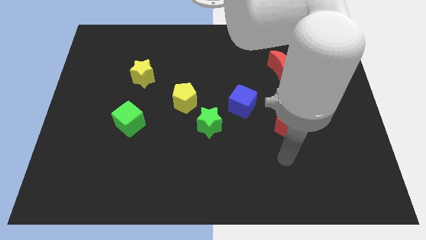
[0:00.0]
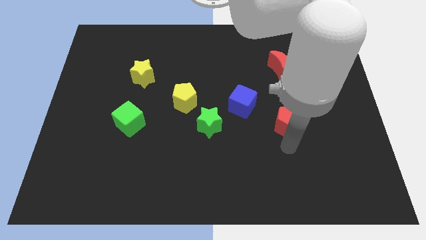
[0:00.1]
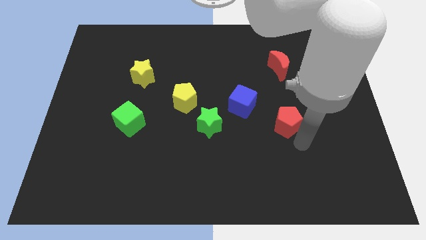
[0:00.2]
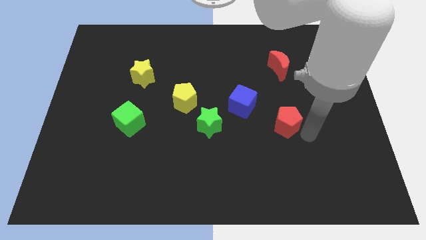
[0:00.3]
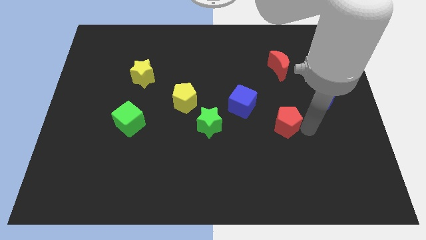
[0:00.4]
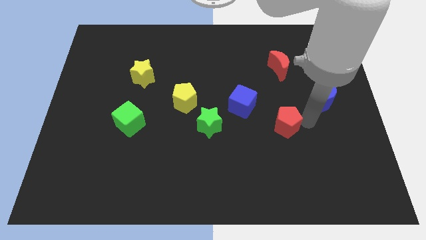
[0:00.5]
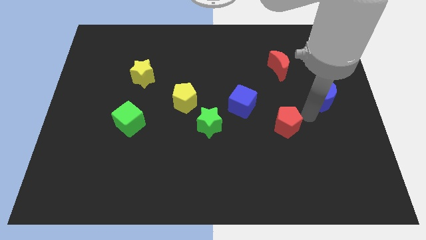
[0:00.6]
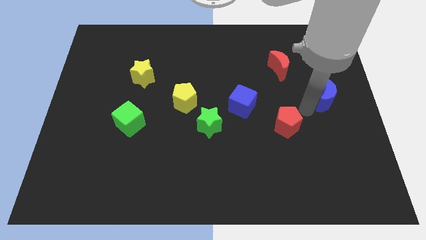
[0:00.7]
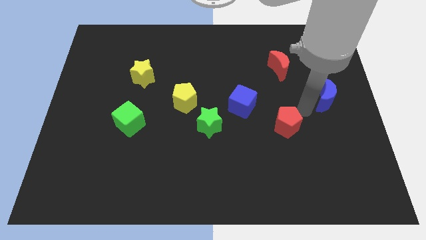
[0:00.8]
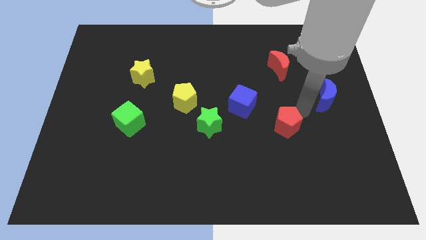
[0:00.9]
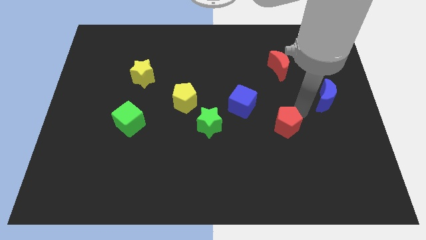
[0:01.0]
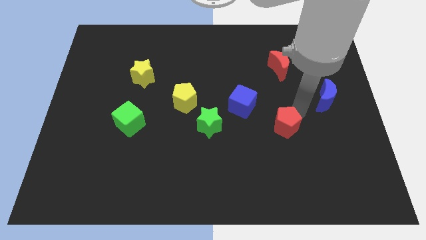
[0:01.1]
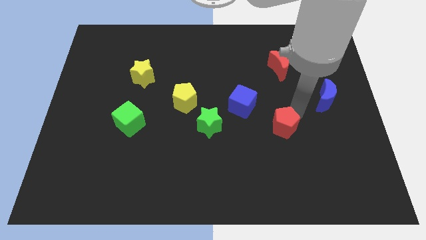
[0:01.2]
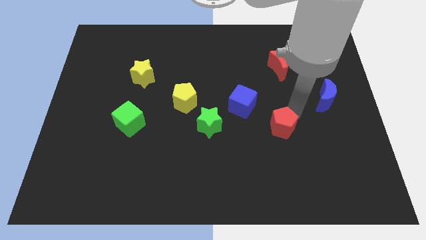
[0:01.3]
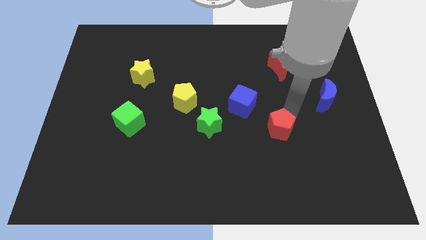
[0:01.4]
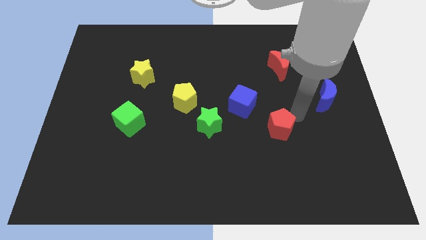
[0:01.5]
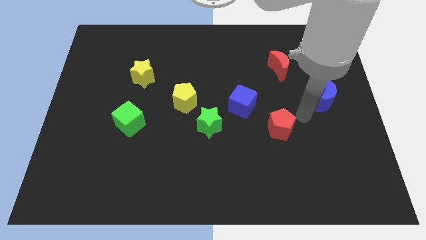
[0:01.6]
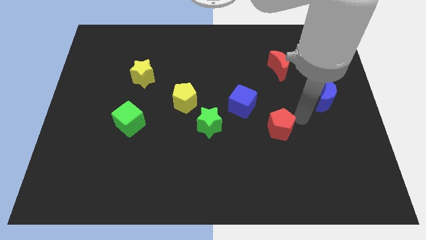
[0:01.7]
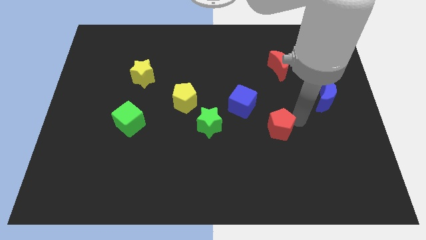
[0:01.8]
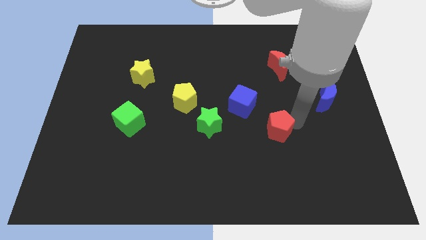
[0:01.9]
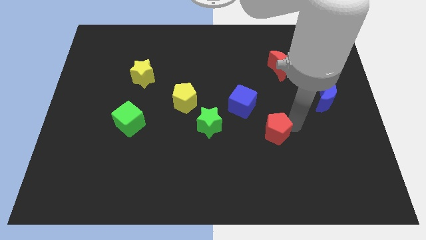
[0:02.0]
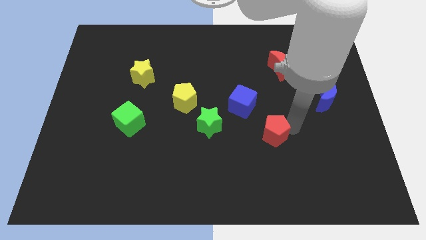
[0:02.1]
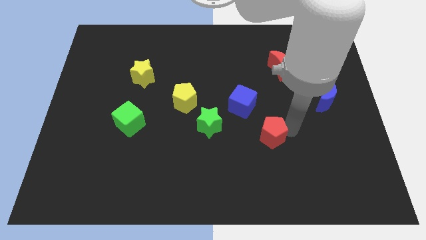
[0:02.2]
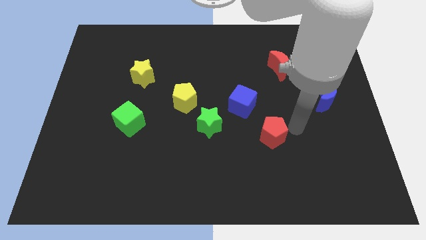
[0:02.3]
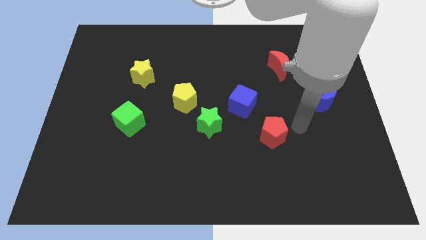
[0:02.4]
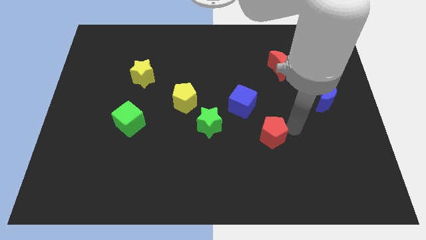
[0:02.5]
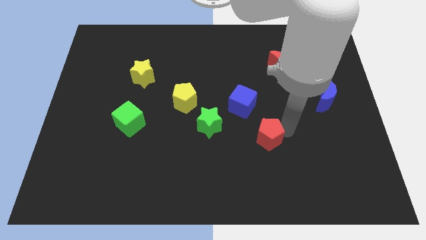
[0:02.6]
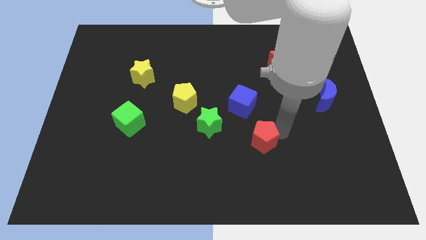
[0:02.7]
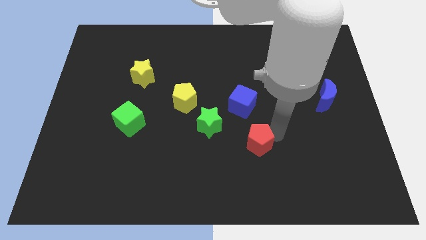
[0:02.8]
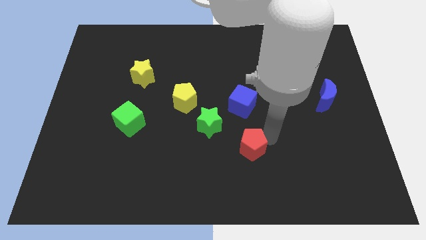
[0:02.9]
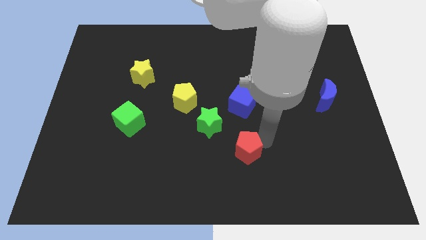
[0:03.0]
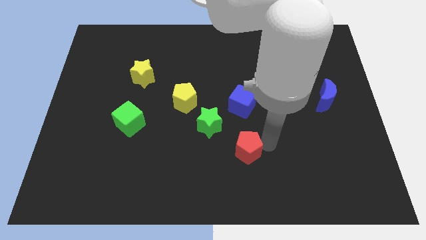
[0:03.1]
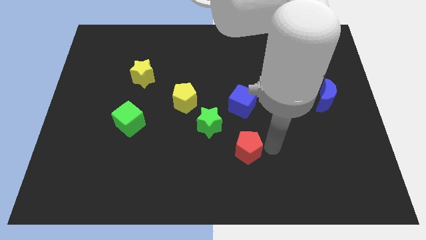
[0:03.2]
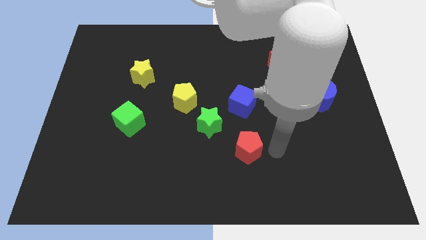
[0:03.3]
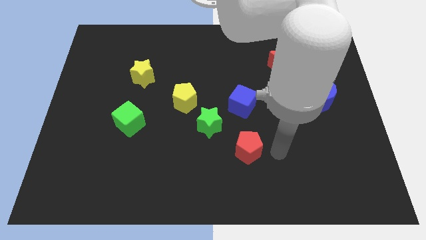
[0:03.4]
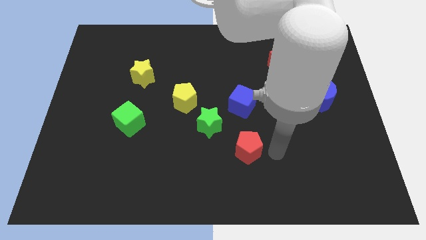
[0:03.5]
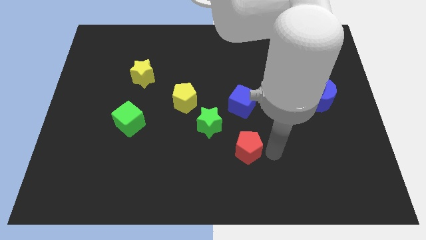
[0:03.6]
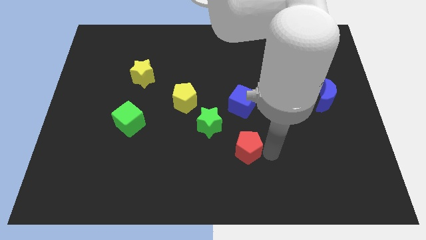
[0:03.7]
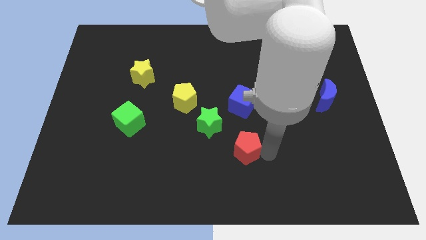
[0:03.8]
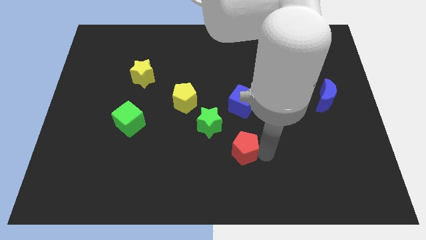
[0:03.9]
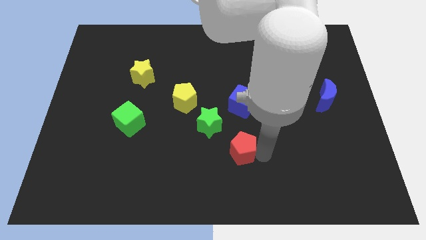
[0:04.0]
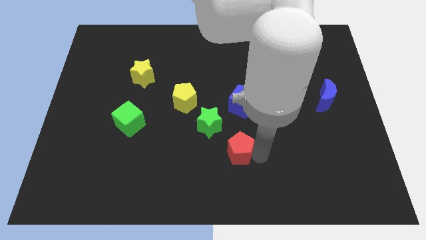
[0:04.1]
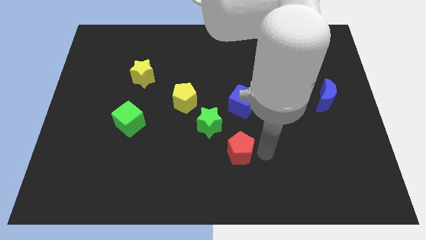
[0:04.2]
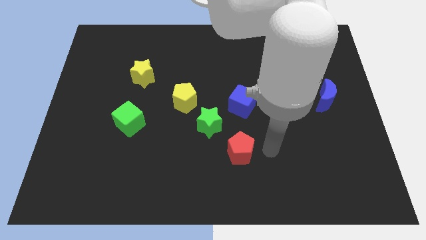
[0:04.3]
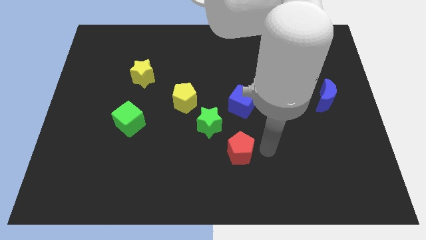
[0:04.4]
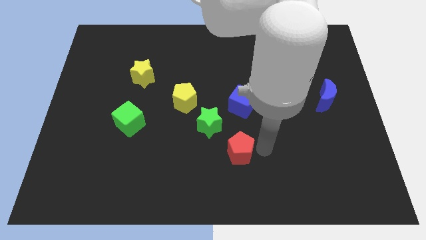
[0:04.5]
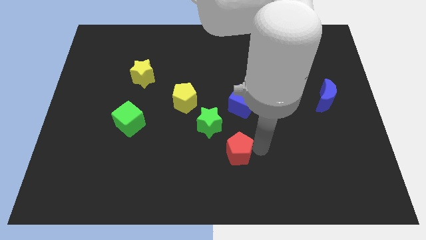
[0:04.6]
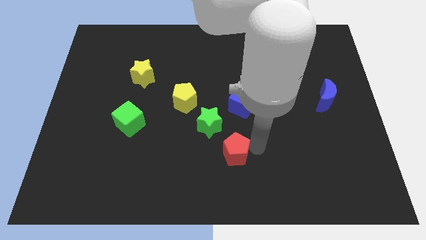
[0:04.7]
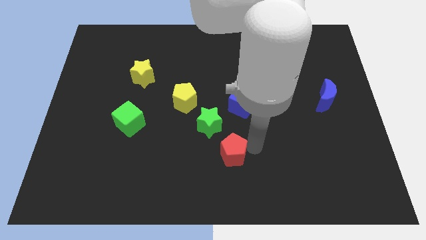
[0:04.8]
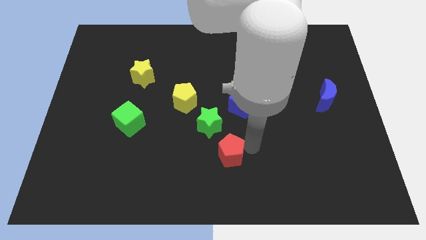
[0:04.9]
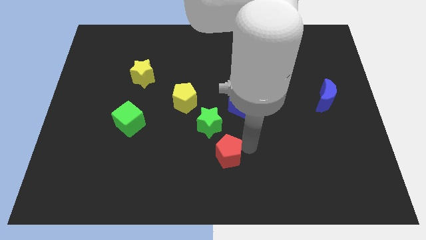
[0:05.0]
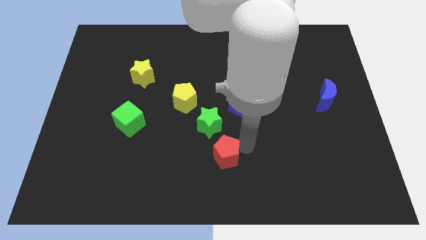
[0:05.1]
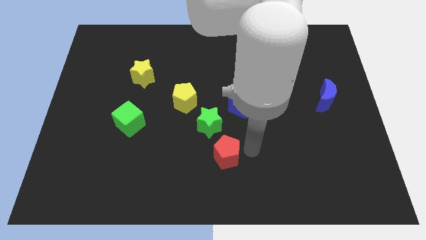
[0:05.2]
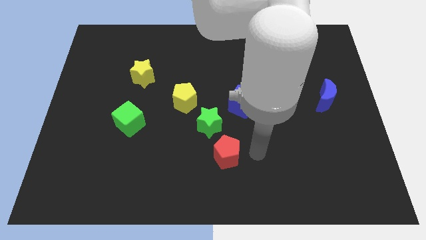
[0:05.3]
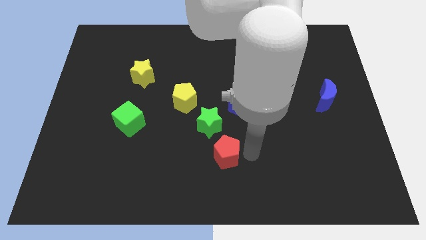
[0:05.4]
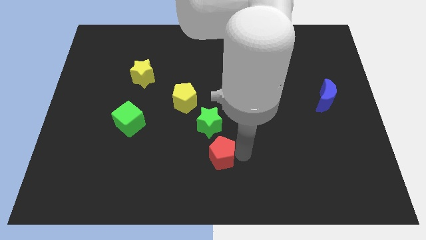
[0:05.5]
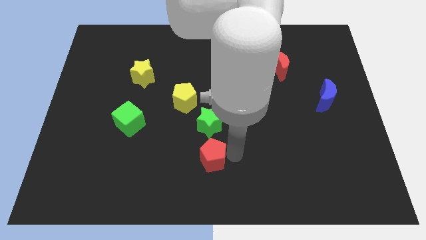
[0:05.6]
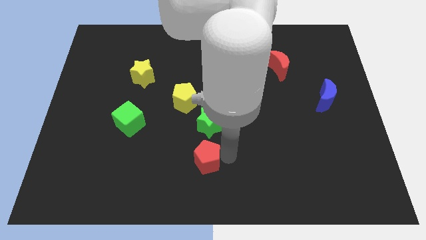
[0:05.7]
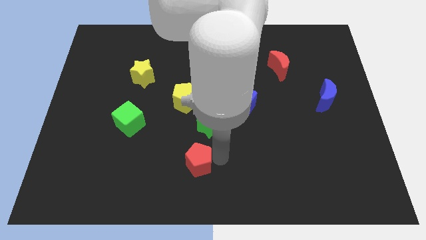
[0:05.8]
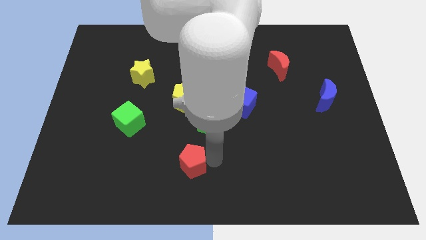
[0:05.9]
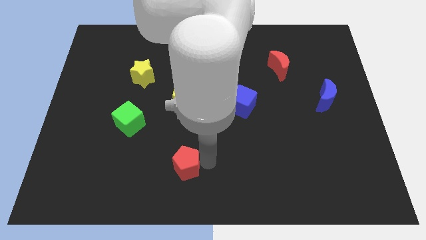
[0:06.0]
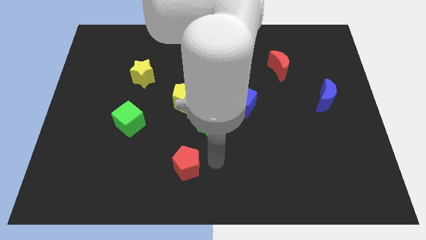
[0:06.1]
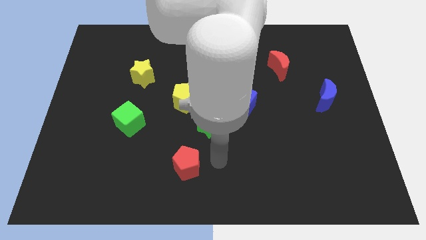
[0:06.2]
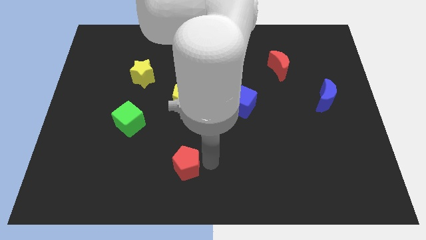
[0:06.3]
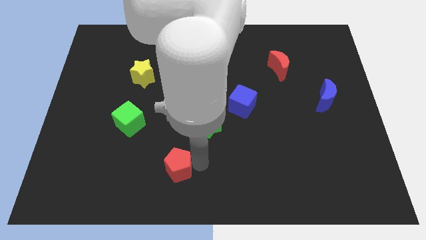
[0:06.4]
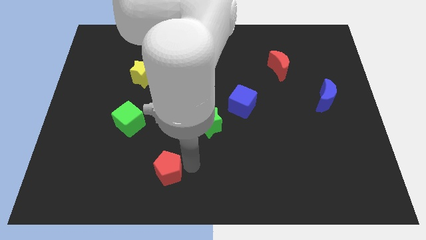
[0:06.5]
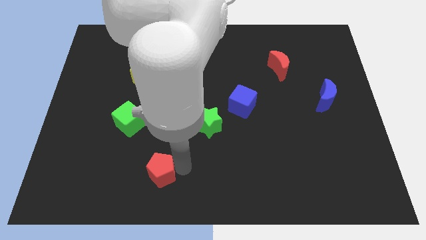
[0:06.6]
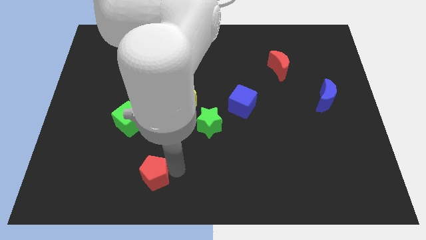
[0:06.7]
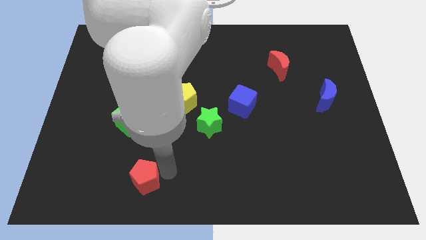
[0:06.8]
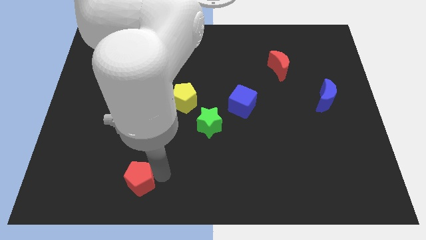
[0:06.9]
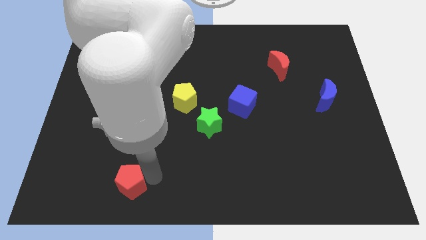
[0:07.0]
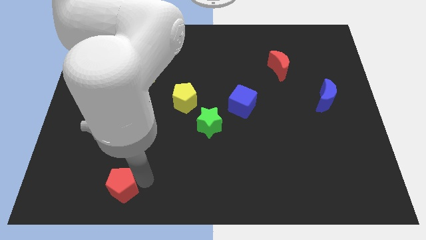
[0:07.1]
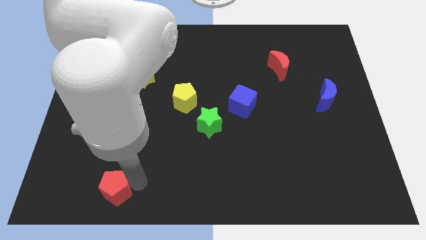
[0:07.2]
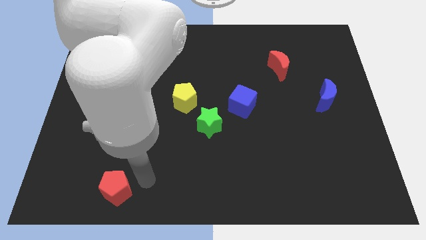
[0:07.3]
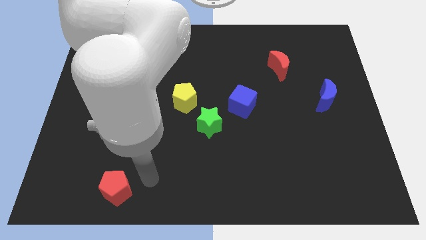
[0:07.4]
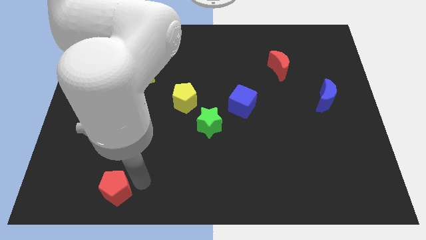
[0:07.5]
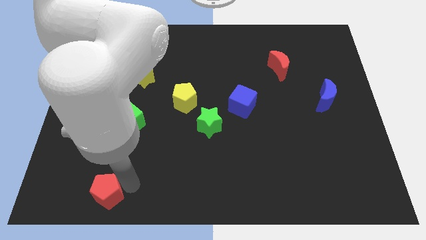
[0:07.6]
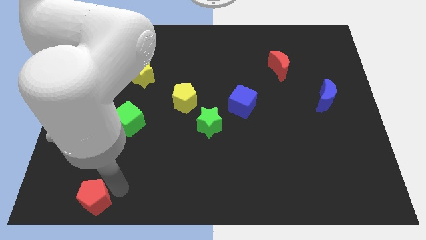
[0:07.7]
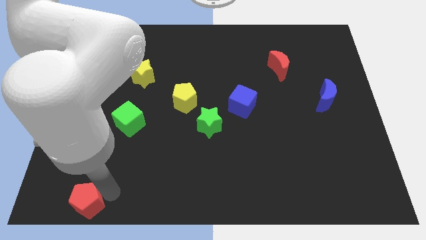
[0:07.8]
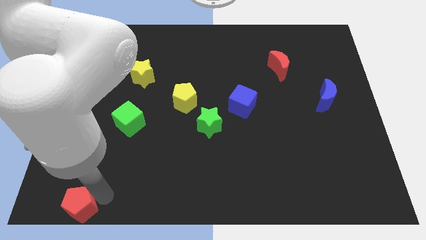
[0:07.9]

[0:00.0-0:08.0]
move the red pentagon to the bottom left of the board
